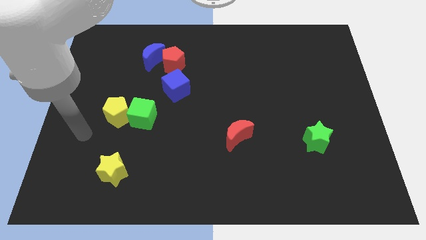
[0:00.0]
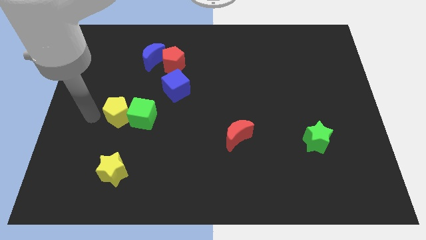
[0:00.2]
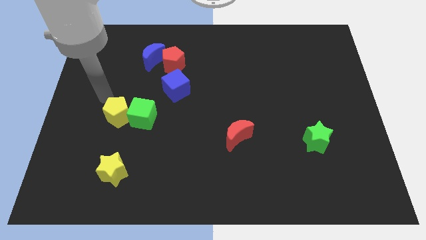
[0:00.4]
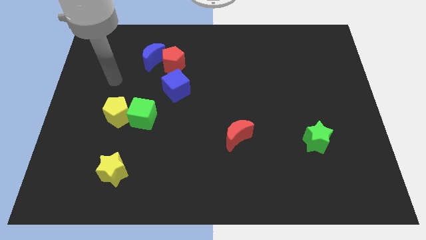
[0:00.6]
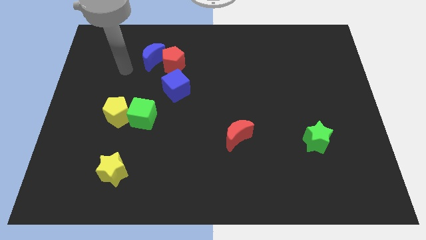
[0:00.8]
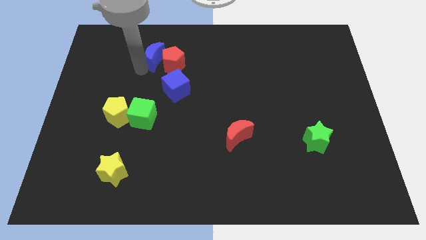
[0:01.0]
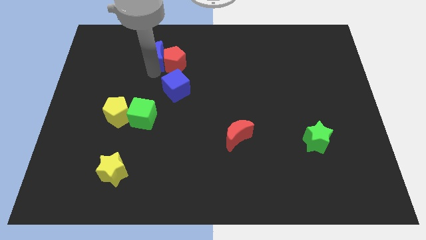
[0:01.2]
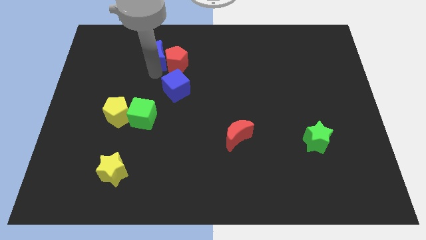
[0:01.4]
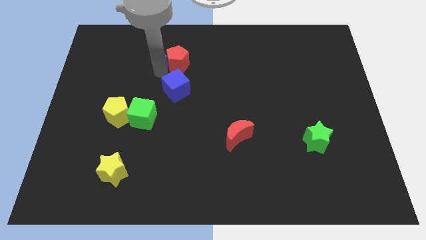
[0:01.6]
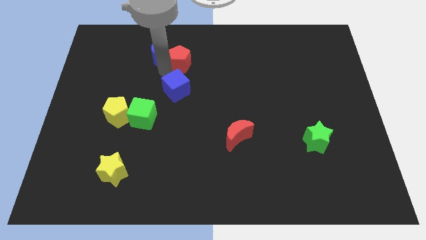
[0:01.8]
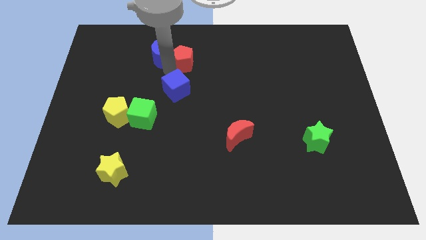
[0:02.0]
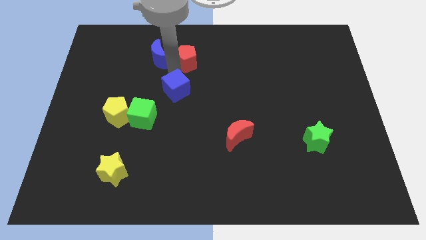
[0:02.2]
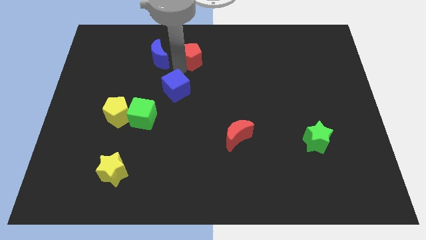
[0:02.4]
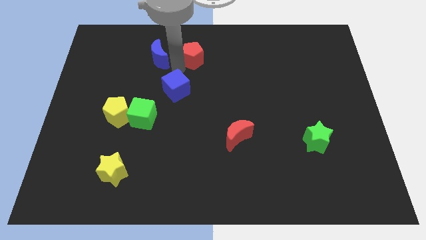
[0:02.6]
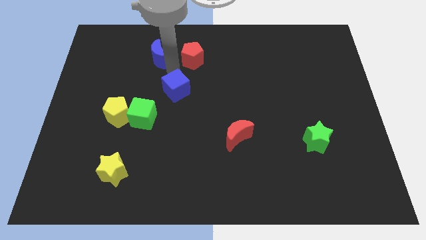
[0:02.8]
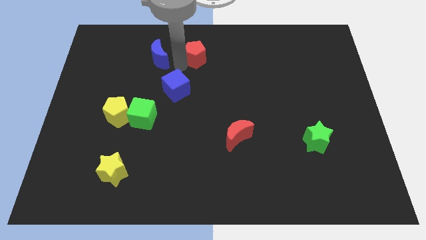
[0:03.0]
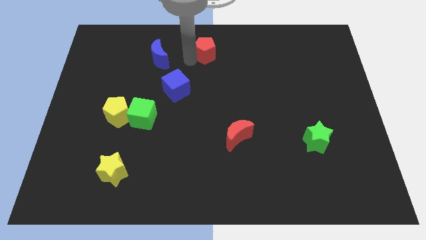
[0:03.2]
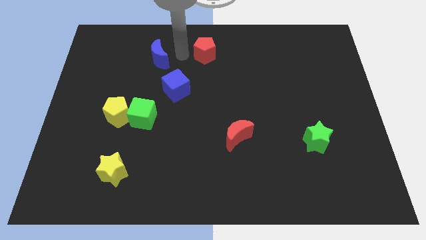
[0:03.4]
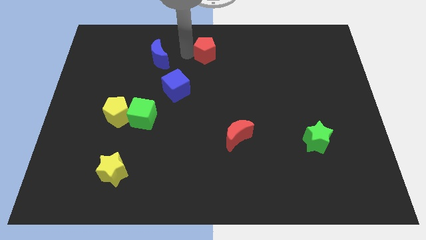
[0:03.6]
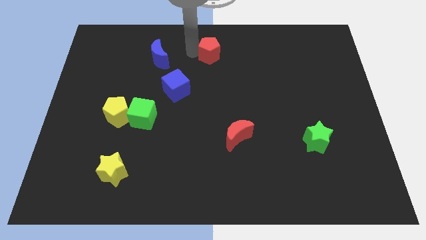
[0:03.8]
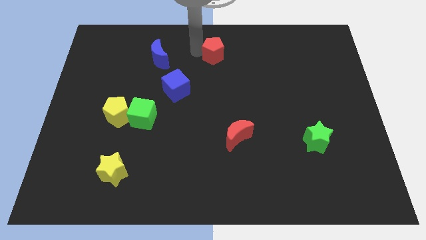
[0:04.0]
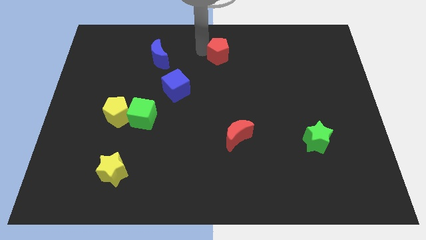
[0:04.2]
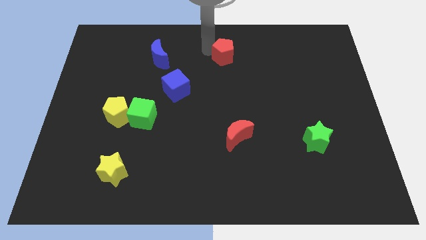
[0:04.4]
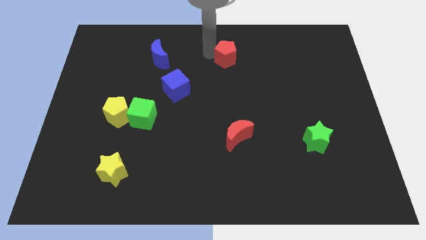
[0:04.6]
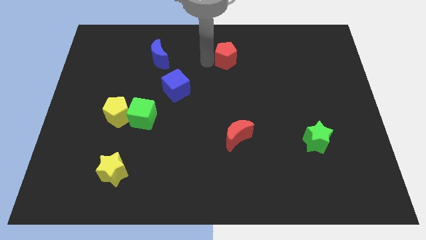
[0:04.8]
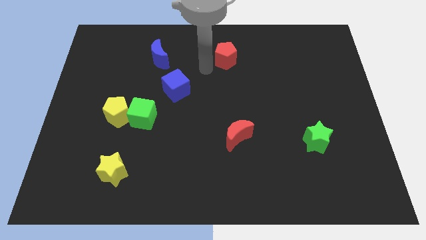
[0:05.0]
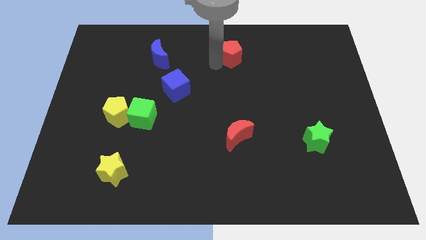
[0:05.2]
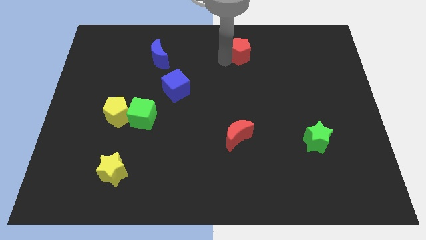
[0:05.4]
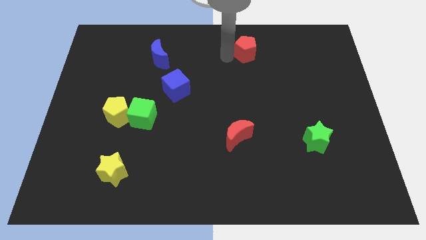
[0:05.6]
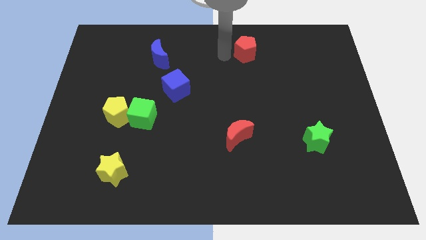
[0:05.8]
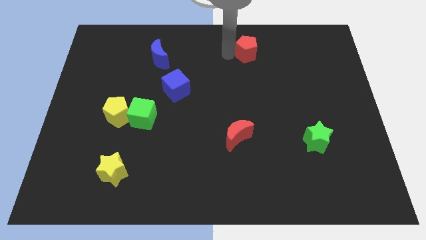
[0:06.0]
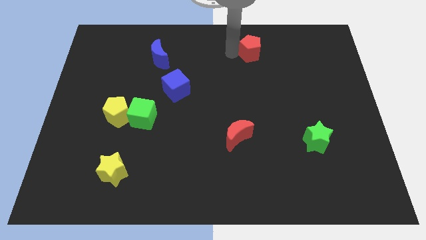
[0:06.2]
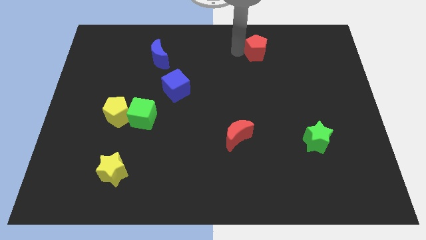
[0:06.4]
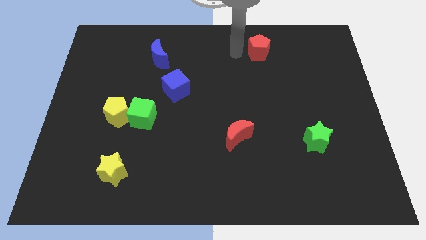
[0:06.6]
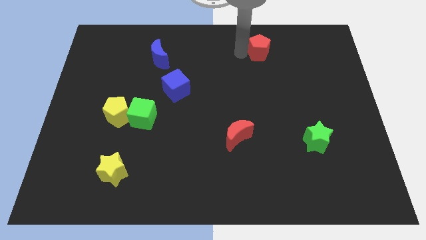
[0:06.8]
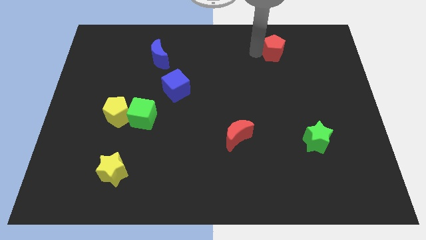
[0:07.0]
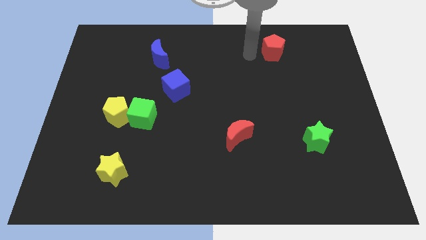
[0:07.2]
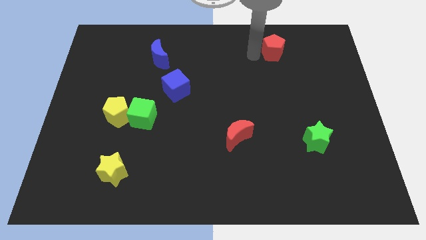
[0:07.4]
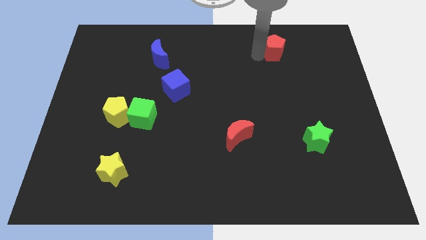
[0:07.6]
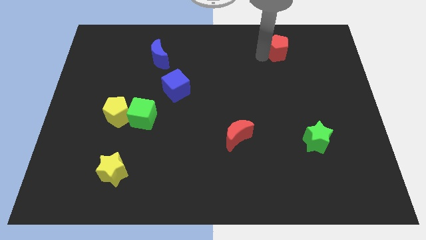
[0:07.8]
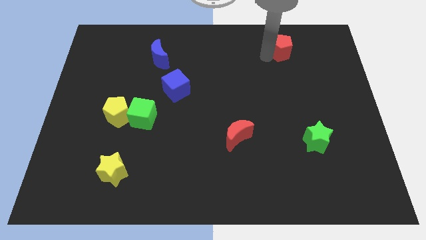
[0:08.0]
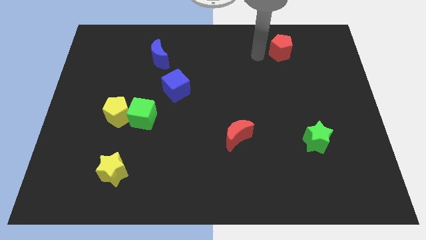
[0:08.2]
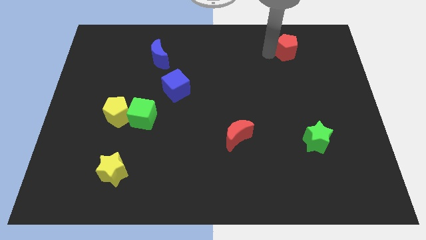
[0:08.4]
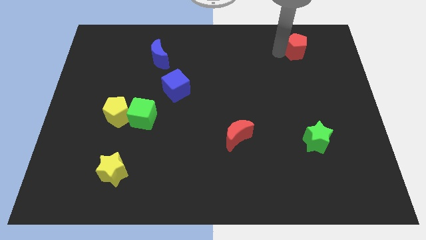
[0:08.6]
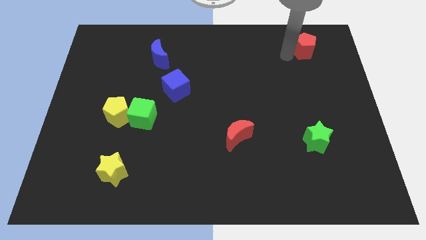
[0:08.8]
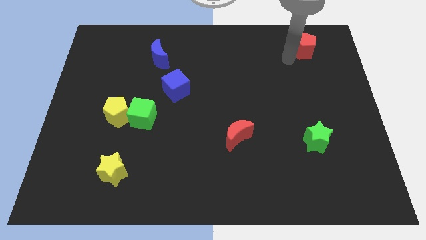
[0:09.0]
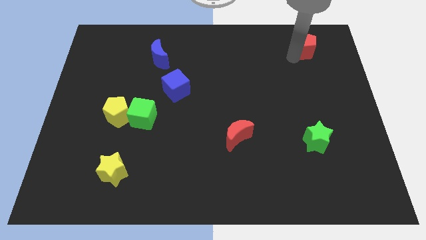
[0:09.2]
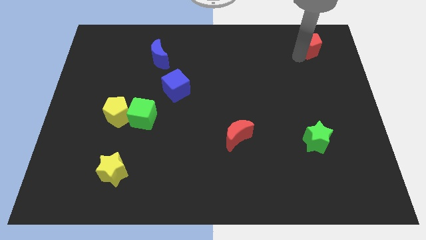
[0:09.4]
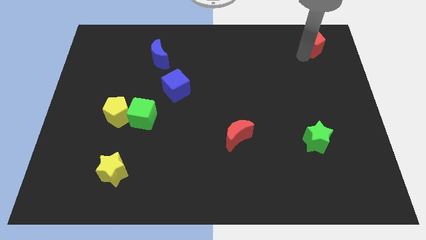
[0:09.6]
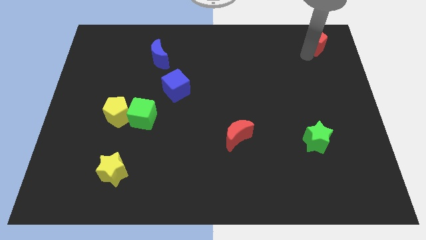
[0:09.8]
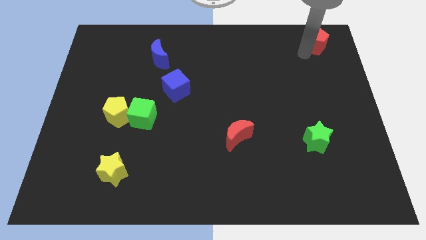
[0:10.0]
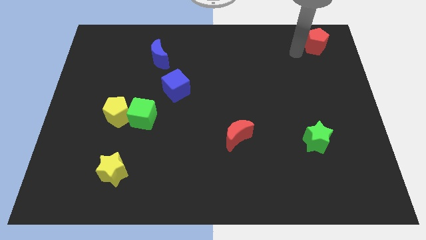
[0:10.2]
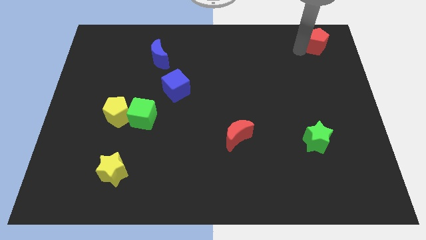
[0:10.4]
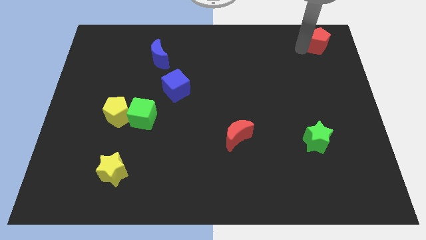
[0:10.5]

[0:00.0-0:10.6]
move the red pentagon to the upper right corner
